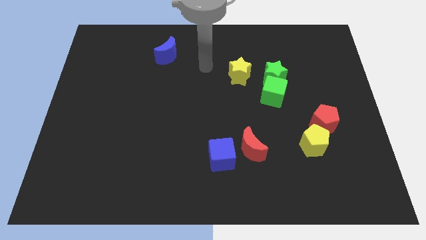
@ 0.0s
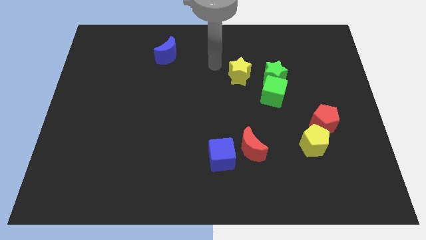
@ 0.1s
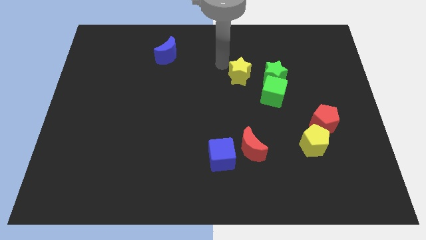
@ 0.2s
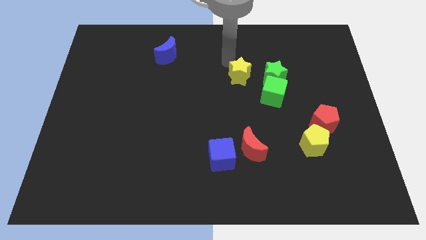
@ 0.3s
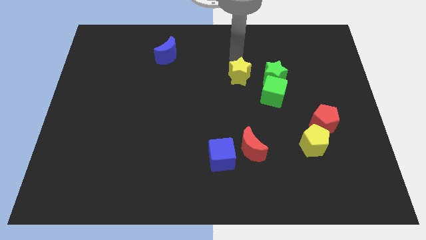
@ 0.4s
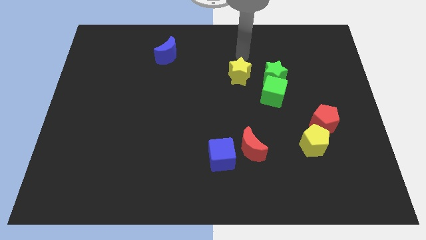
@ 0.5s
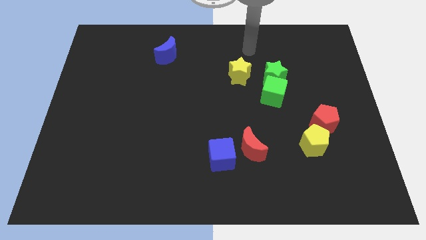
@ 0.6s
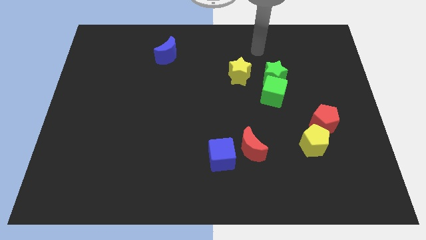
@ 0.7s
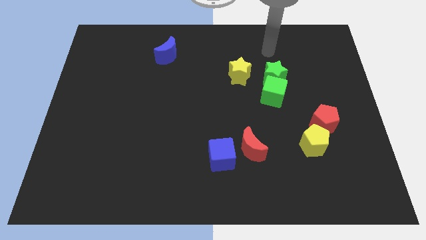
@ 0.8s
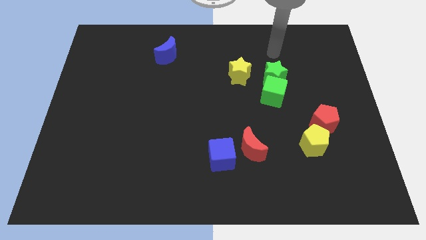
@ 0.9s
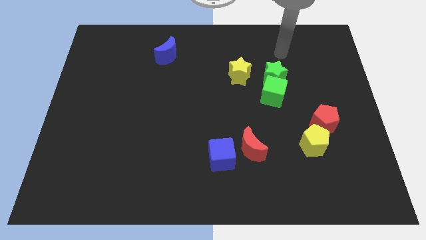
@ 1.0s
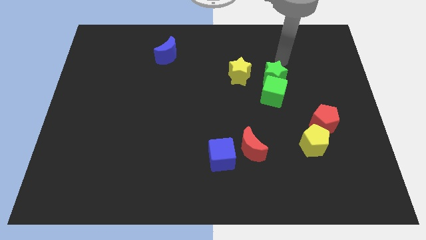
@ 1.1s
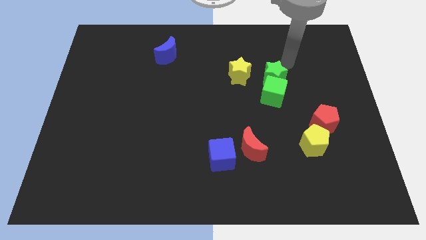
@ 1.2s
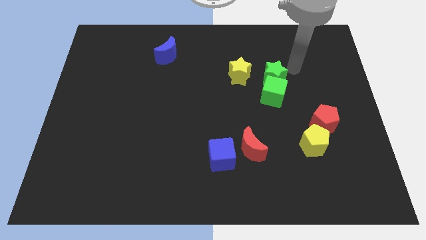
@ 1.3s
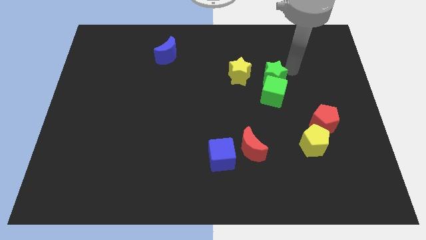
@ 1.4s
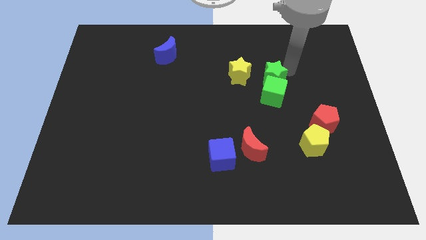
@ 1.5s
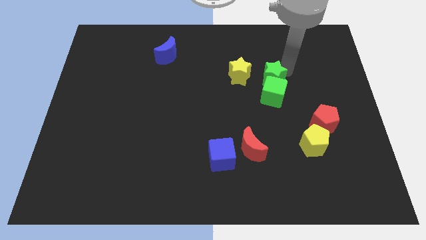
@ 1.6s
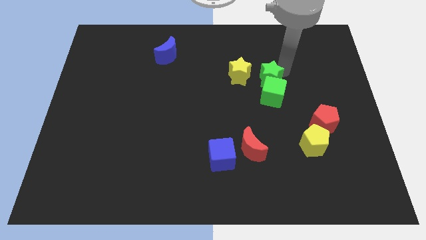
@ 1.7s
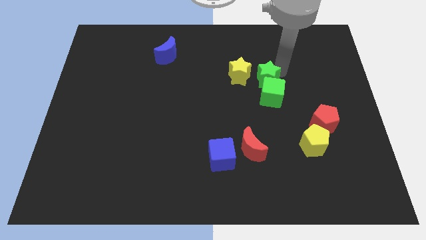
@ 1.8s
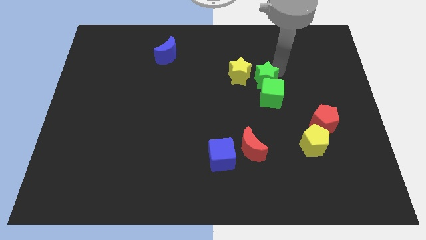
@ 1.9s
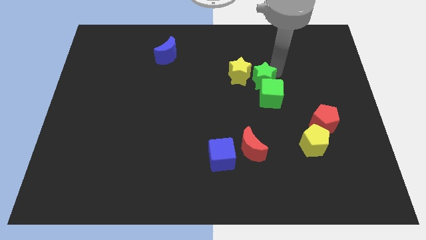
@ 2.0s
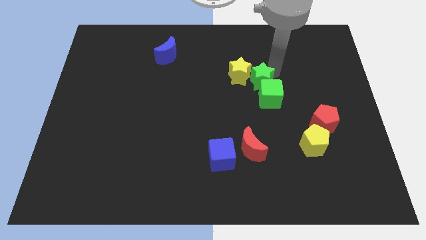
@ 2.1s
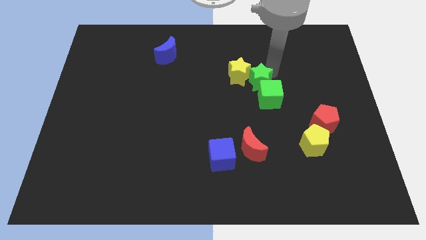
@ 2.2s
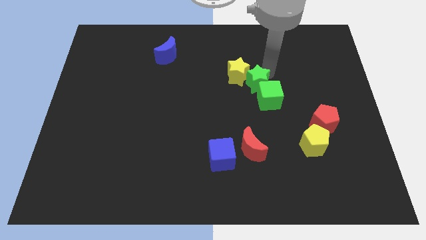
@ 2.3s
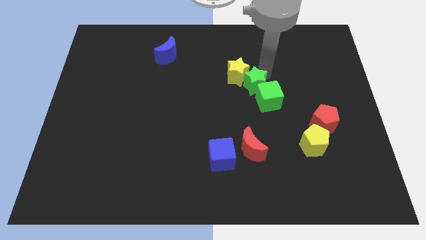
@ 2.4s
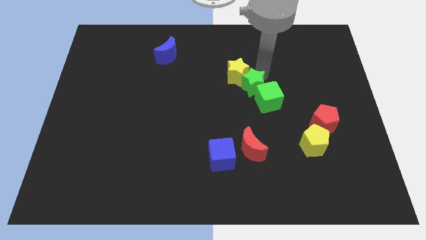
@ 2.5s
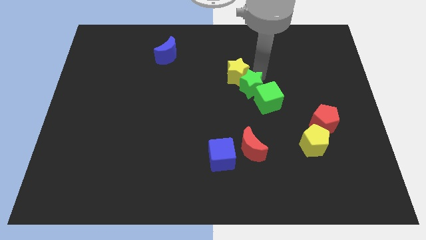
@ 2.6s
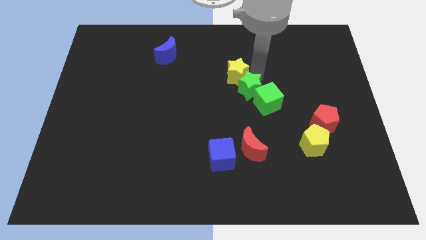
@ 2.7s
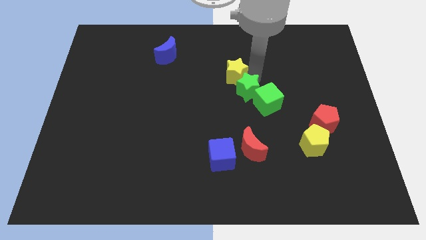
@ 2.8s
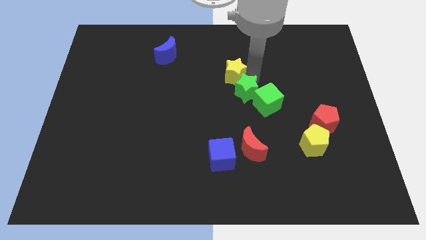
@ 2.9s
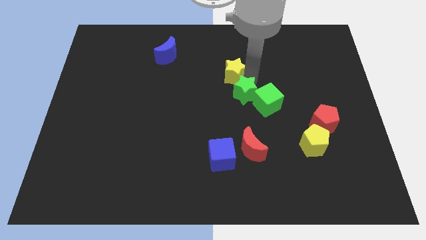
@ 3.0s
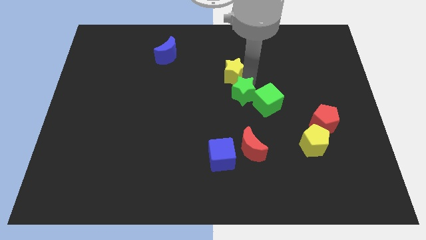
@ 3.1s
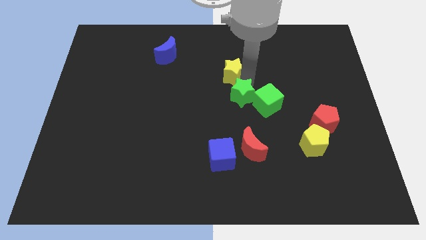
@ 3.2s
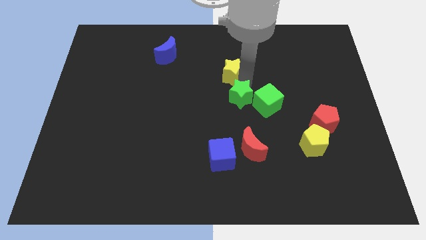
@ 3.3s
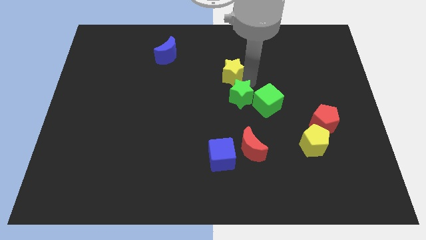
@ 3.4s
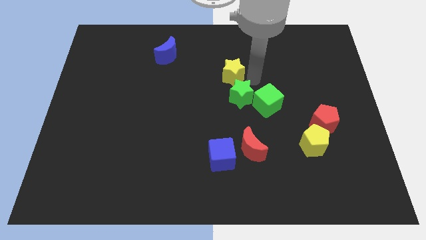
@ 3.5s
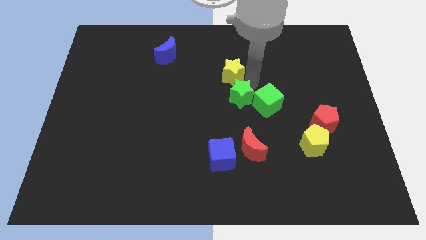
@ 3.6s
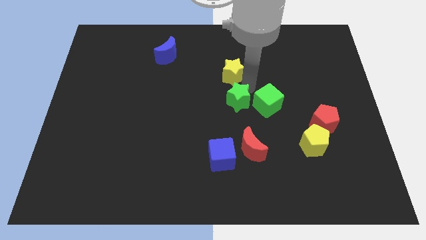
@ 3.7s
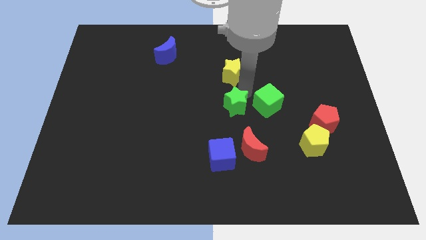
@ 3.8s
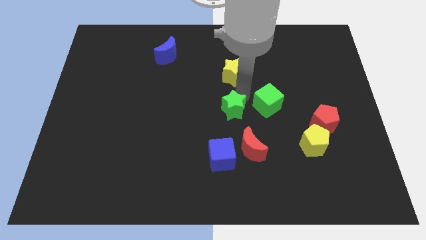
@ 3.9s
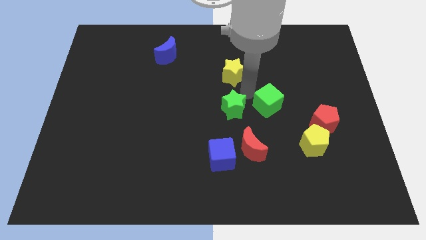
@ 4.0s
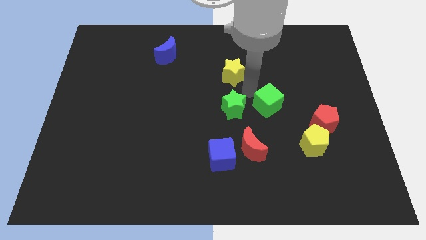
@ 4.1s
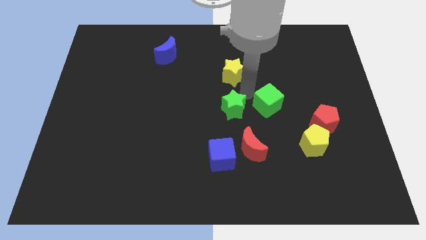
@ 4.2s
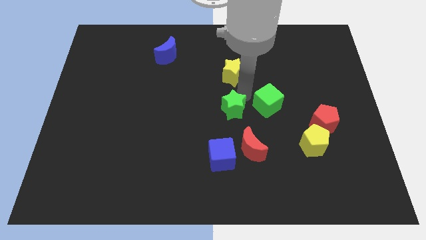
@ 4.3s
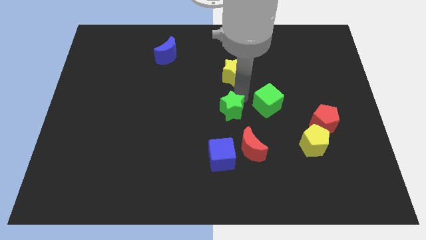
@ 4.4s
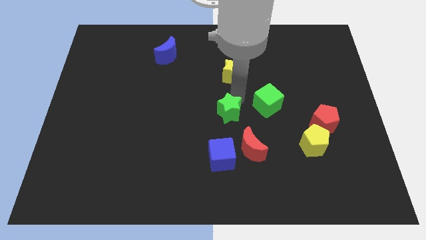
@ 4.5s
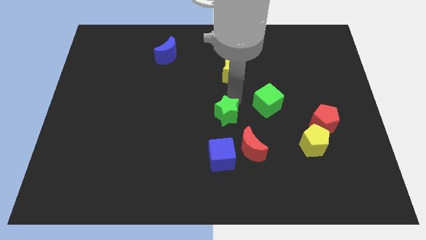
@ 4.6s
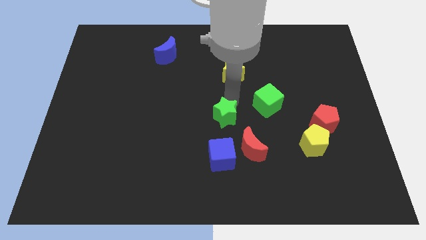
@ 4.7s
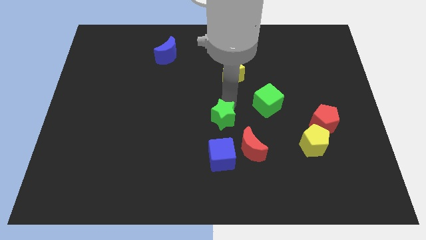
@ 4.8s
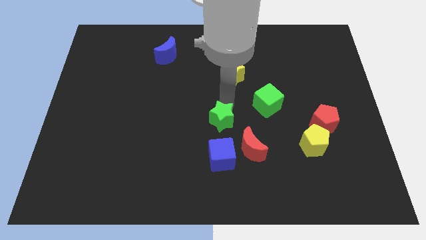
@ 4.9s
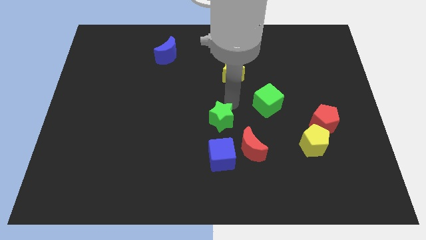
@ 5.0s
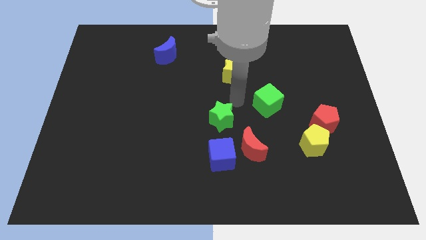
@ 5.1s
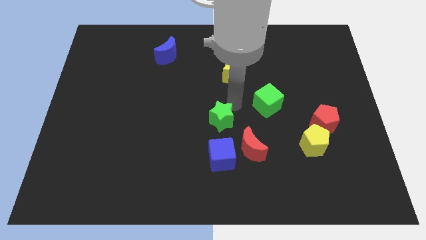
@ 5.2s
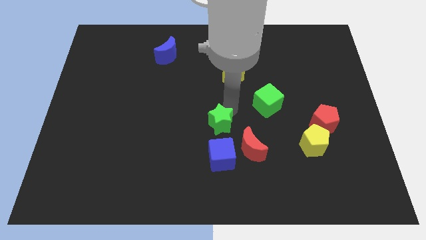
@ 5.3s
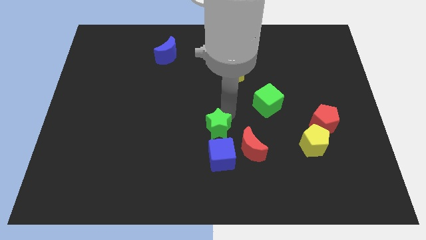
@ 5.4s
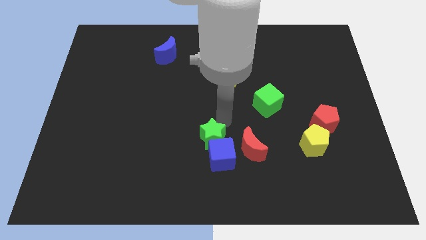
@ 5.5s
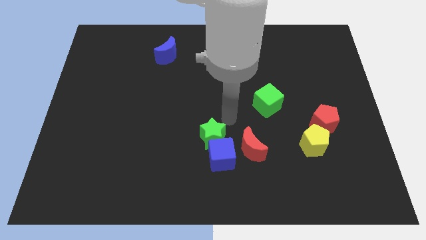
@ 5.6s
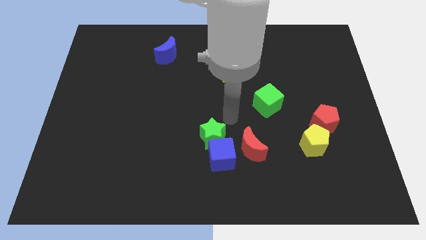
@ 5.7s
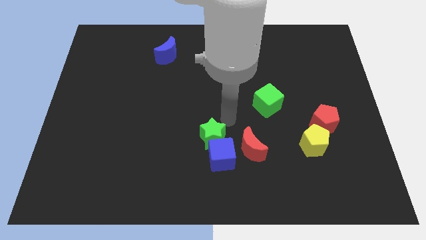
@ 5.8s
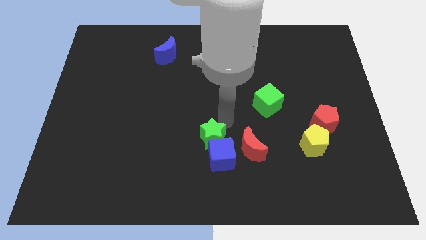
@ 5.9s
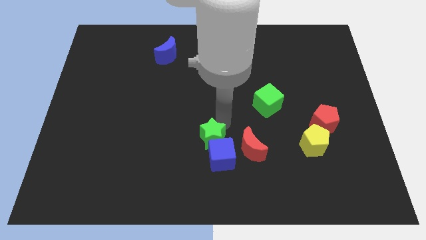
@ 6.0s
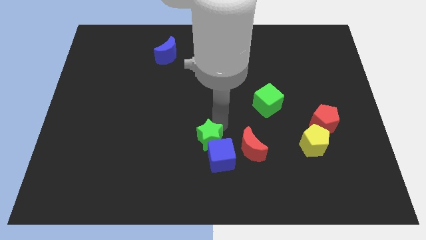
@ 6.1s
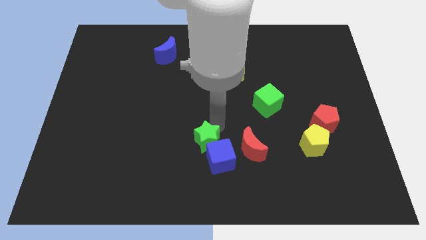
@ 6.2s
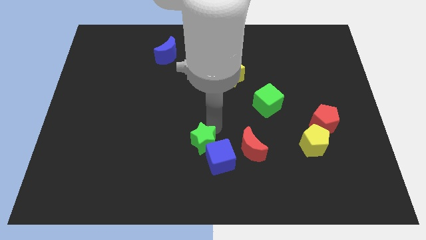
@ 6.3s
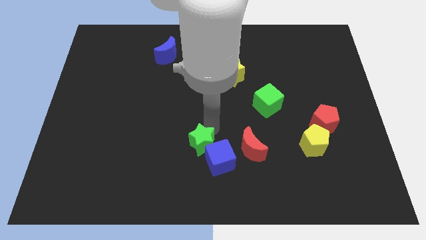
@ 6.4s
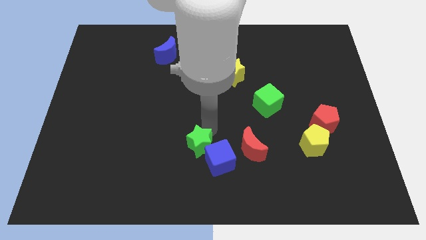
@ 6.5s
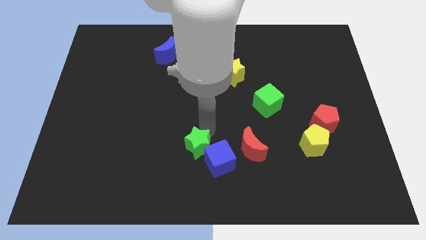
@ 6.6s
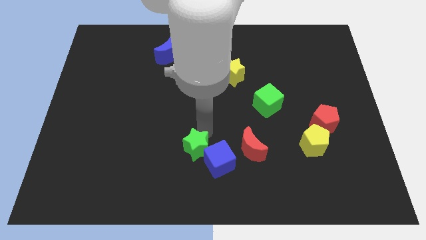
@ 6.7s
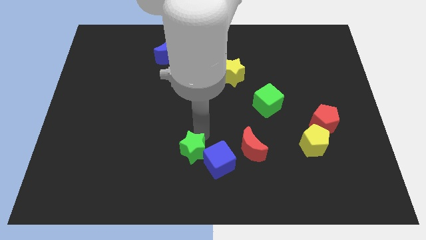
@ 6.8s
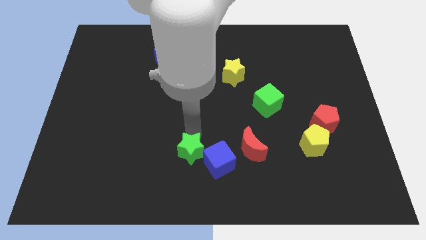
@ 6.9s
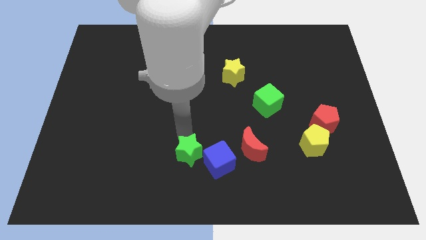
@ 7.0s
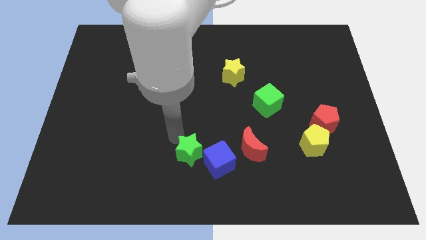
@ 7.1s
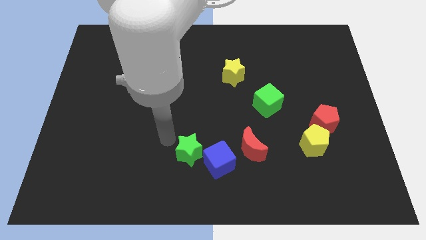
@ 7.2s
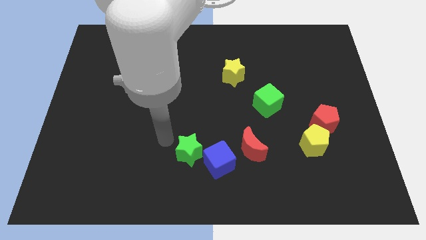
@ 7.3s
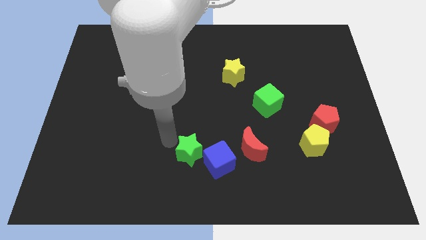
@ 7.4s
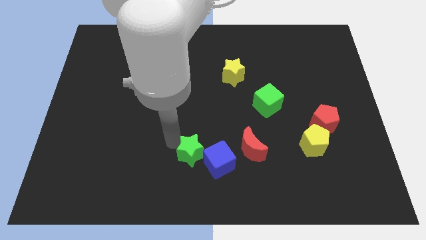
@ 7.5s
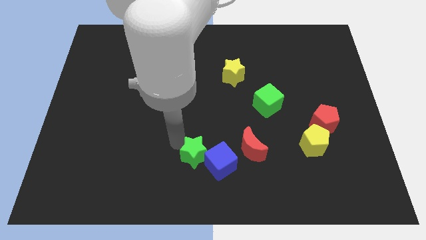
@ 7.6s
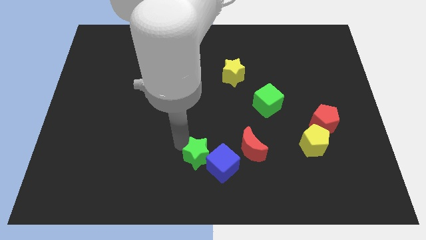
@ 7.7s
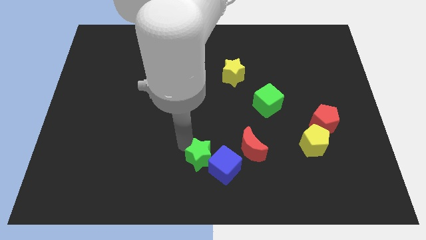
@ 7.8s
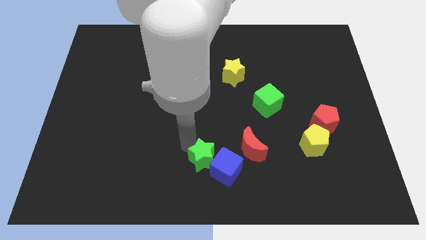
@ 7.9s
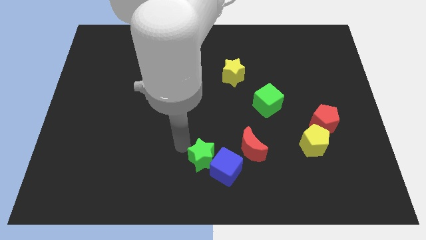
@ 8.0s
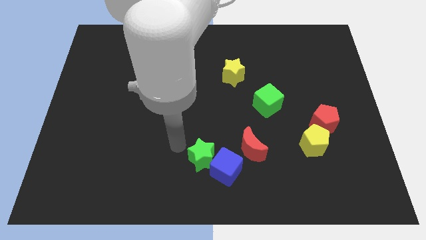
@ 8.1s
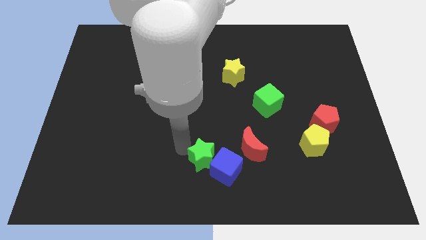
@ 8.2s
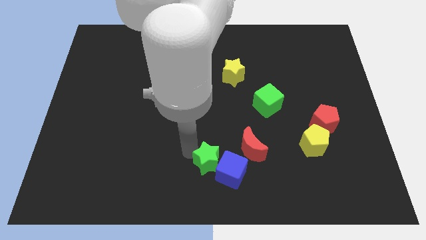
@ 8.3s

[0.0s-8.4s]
push the green star to the bottom left side of the red moon
